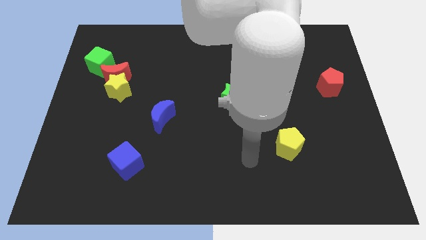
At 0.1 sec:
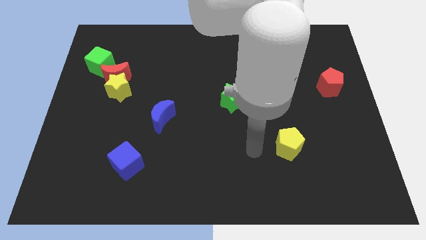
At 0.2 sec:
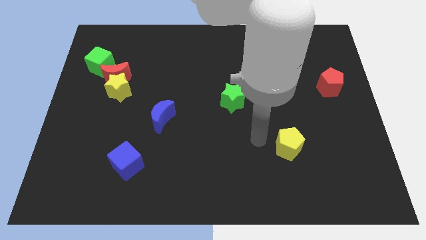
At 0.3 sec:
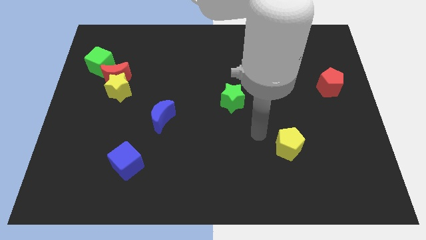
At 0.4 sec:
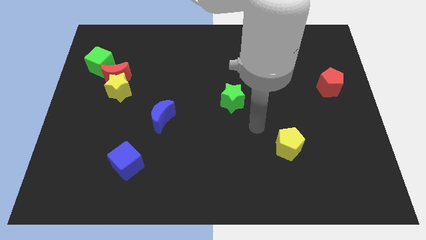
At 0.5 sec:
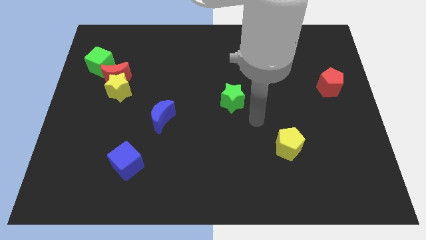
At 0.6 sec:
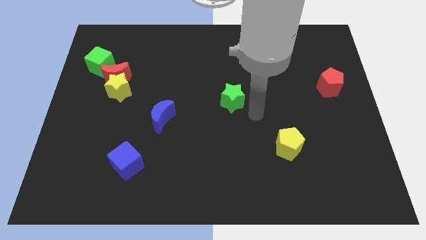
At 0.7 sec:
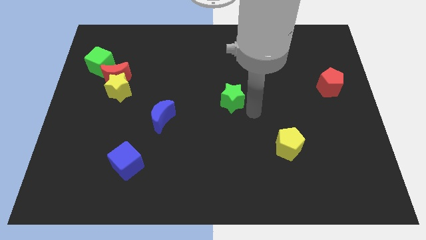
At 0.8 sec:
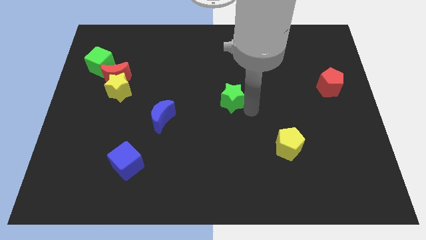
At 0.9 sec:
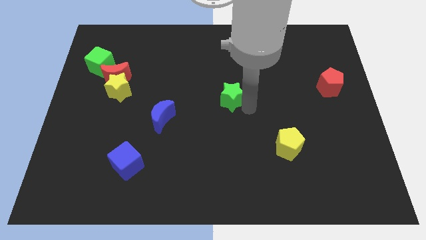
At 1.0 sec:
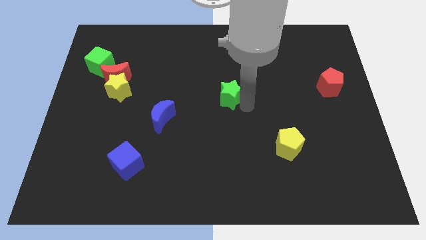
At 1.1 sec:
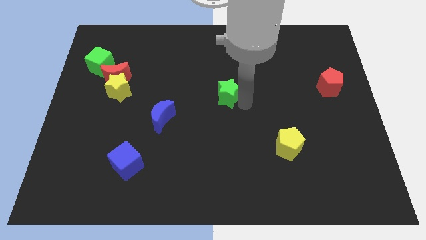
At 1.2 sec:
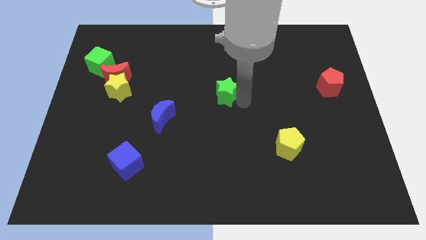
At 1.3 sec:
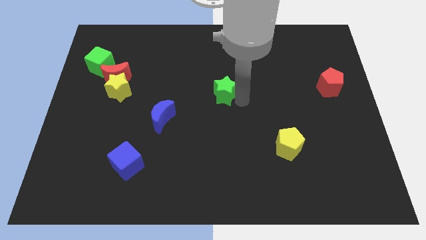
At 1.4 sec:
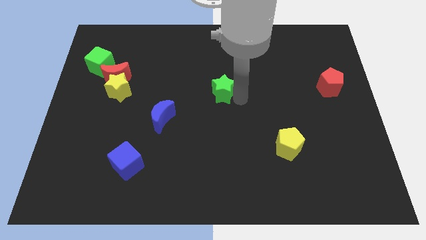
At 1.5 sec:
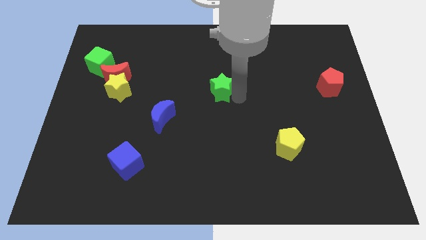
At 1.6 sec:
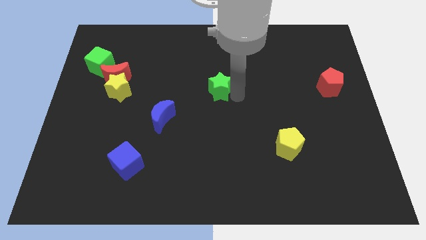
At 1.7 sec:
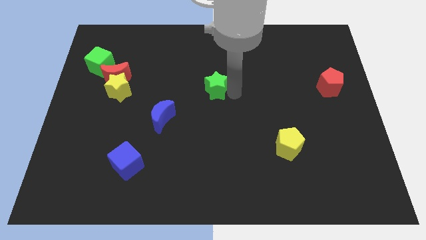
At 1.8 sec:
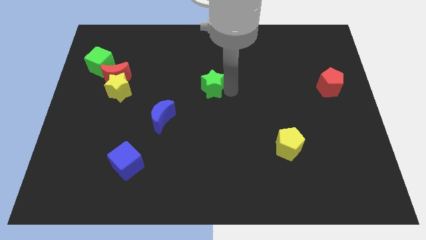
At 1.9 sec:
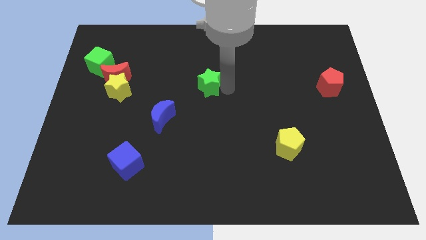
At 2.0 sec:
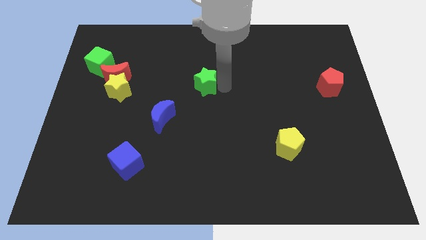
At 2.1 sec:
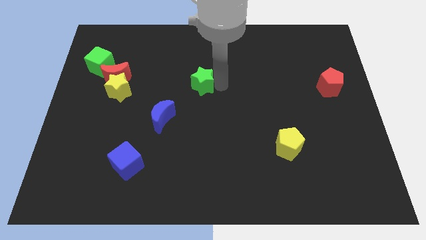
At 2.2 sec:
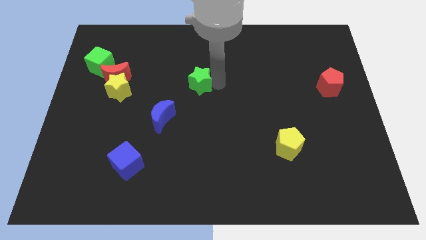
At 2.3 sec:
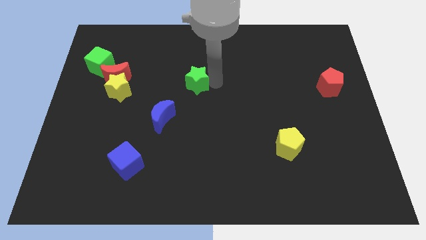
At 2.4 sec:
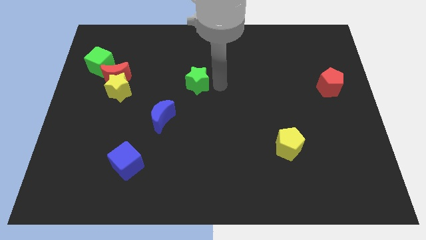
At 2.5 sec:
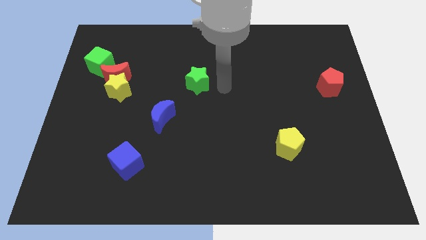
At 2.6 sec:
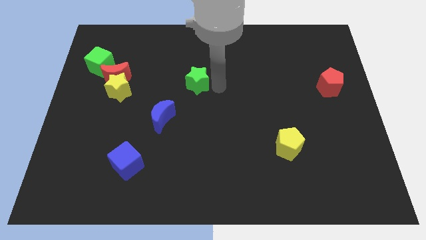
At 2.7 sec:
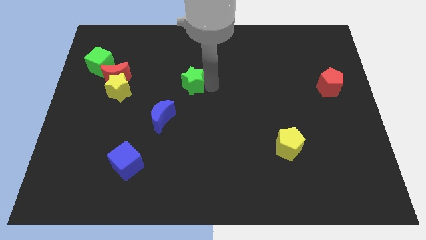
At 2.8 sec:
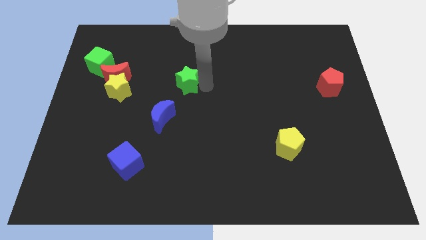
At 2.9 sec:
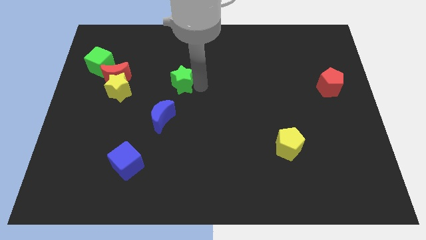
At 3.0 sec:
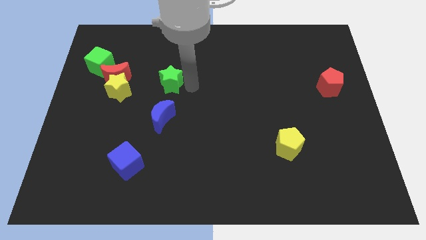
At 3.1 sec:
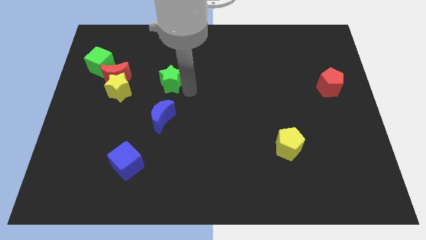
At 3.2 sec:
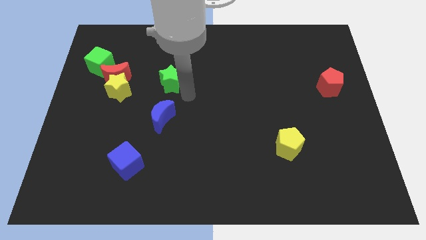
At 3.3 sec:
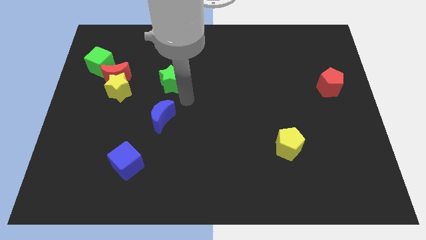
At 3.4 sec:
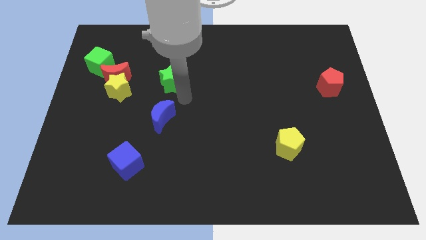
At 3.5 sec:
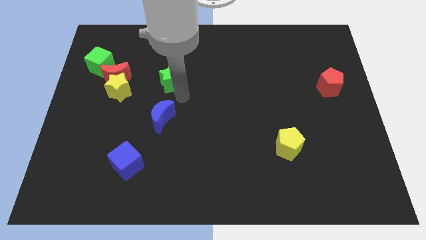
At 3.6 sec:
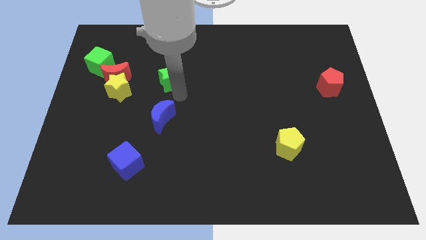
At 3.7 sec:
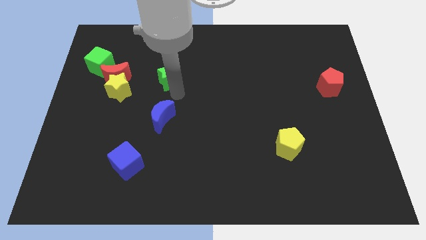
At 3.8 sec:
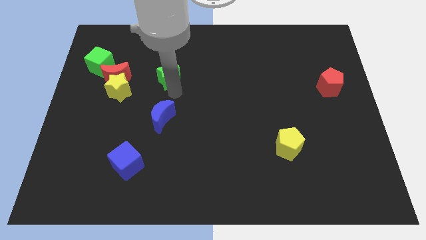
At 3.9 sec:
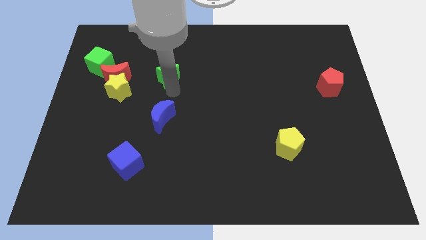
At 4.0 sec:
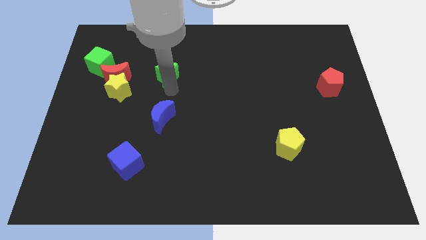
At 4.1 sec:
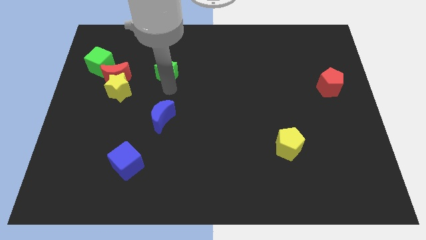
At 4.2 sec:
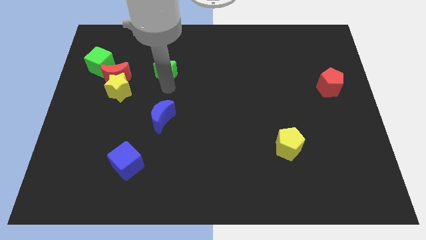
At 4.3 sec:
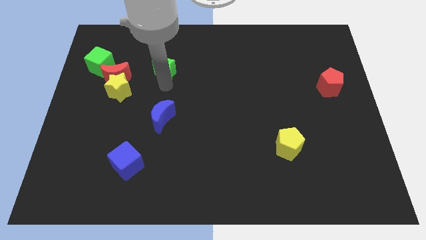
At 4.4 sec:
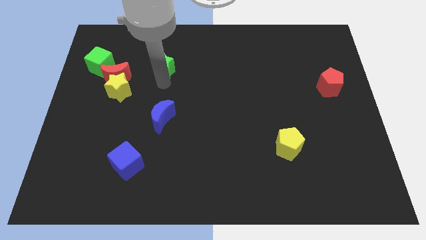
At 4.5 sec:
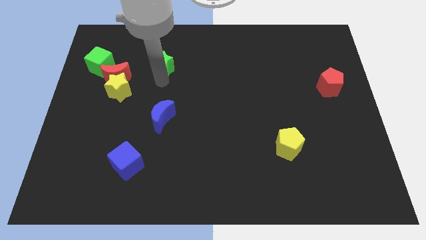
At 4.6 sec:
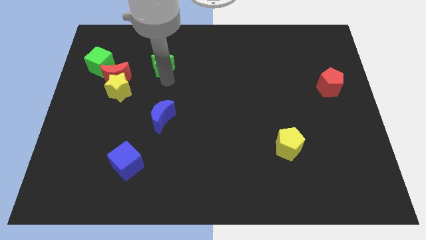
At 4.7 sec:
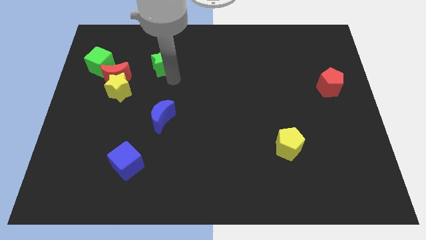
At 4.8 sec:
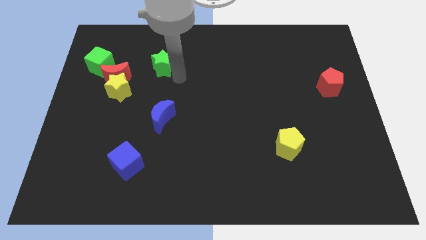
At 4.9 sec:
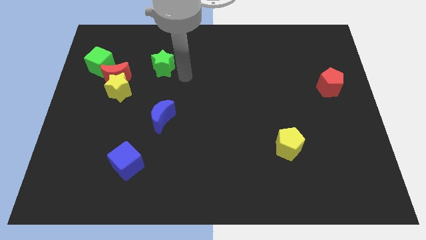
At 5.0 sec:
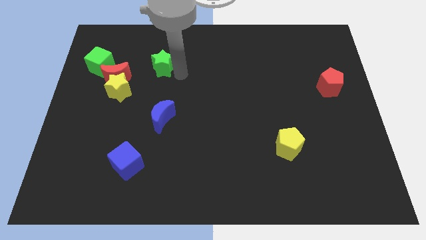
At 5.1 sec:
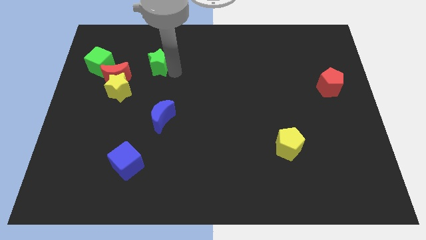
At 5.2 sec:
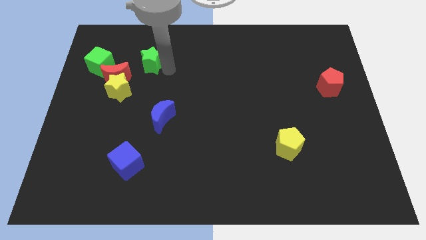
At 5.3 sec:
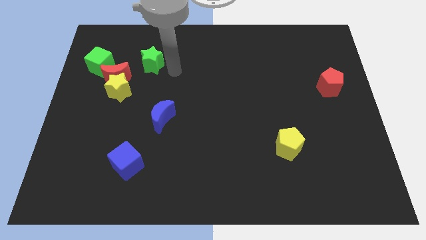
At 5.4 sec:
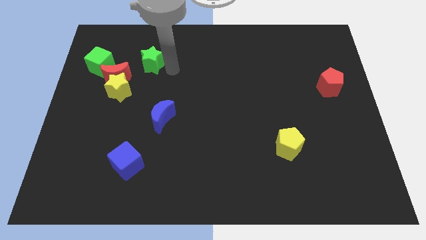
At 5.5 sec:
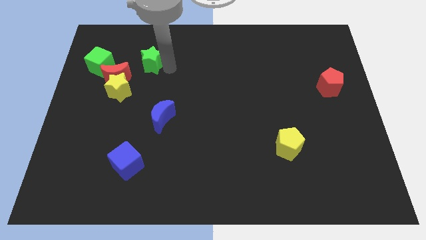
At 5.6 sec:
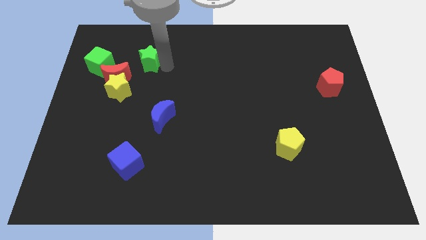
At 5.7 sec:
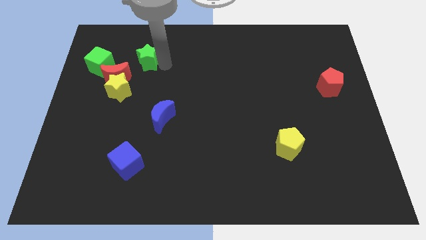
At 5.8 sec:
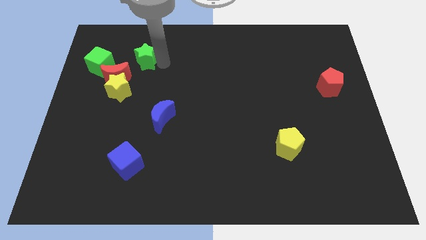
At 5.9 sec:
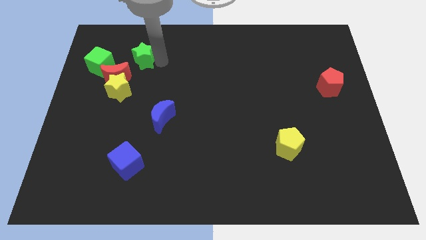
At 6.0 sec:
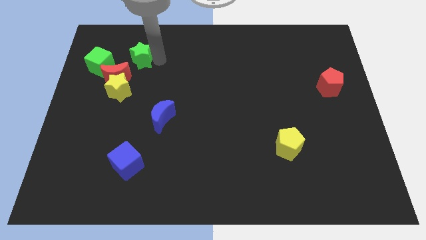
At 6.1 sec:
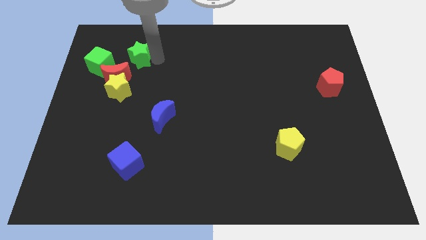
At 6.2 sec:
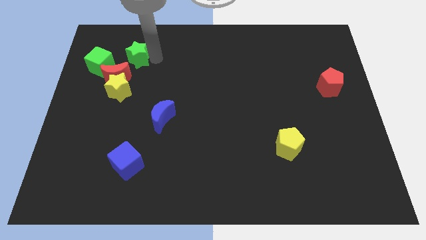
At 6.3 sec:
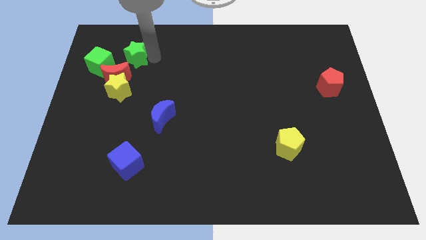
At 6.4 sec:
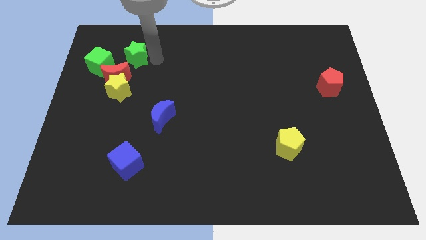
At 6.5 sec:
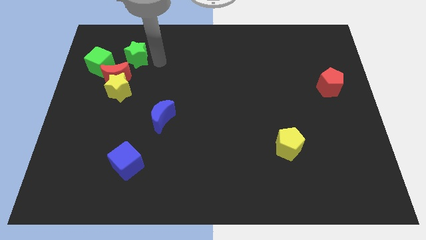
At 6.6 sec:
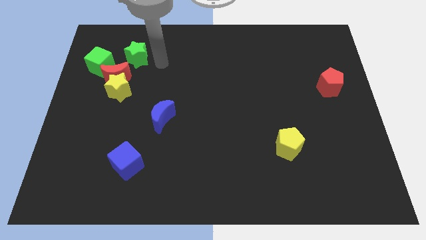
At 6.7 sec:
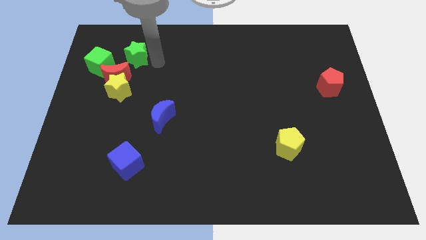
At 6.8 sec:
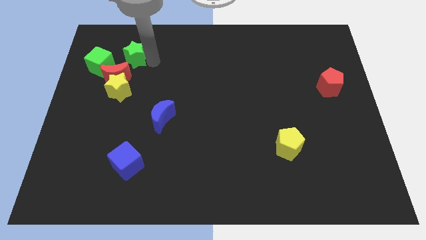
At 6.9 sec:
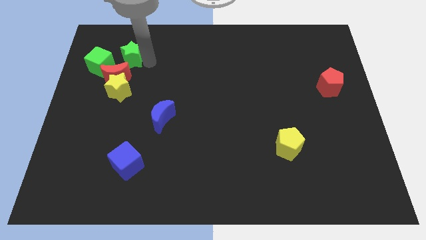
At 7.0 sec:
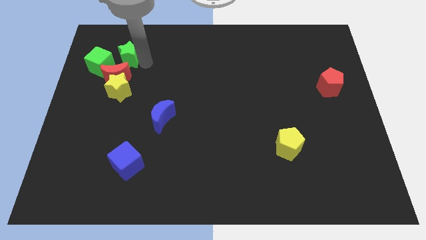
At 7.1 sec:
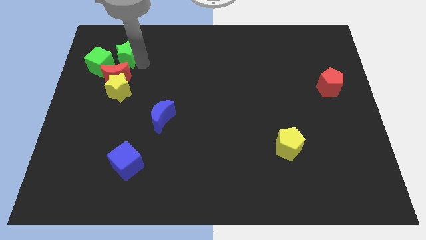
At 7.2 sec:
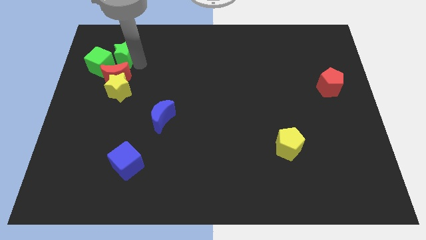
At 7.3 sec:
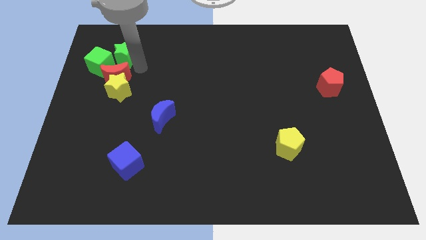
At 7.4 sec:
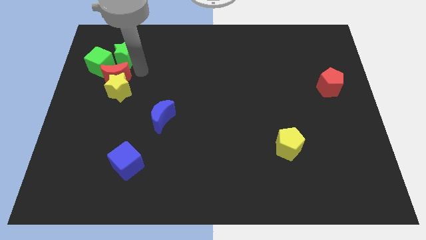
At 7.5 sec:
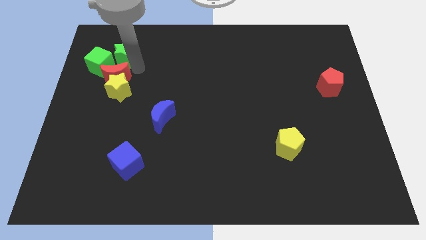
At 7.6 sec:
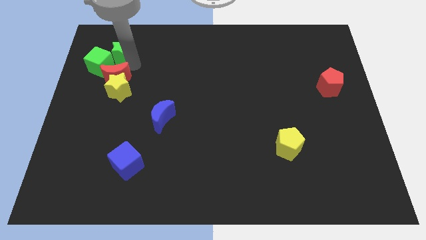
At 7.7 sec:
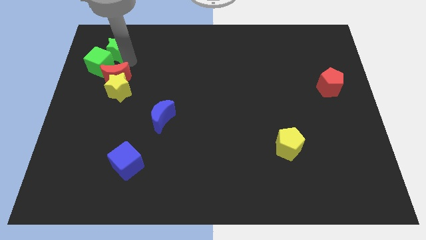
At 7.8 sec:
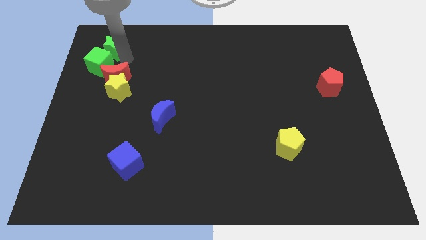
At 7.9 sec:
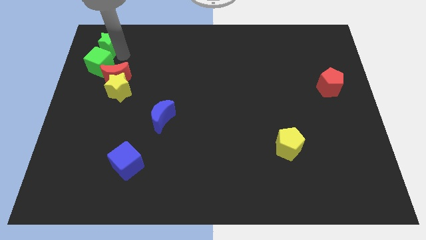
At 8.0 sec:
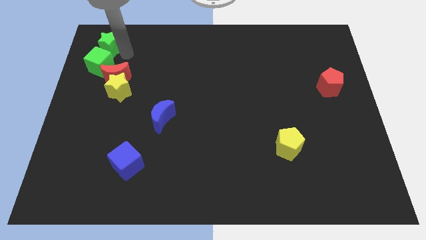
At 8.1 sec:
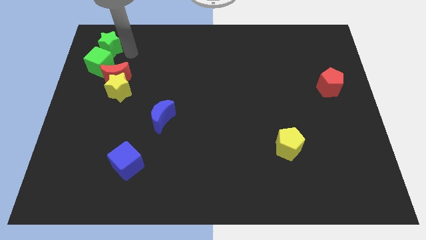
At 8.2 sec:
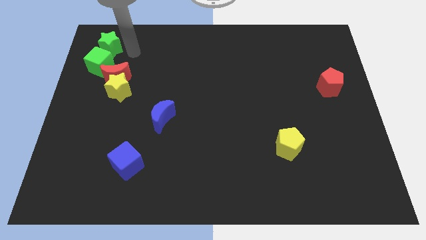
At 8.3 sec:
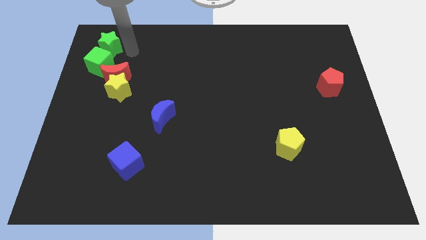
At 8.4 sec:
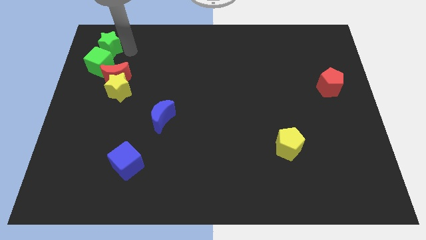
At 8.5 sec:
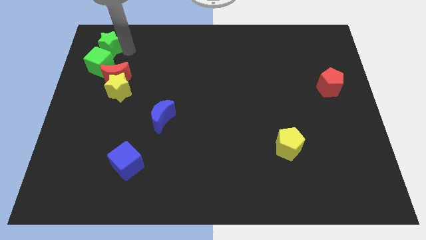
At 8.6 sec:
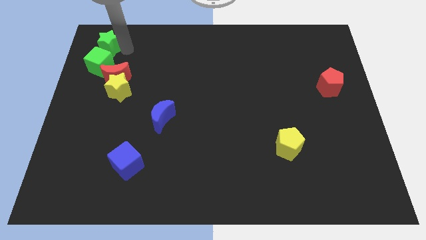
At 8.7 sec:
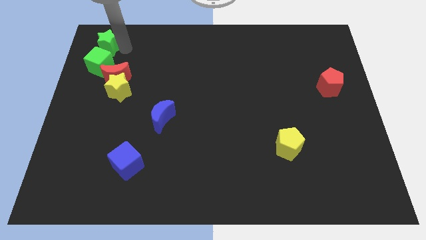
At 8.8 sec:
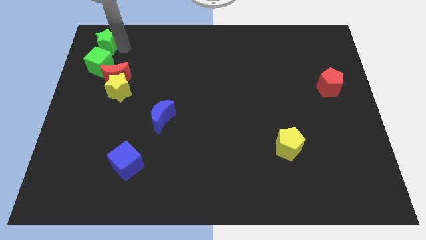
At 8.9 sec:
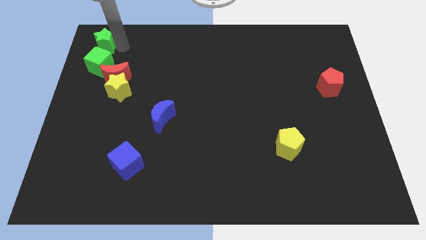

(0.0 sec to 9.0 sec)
slide the green star to the upper left corner
